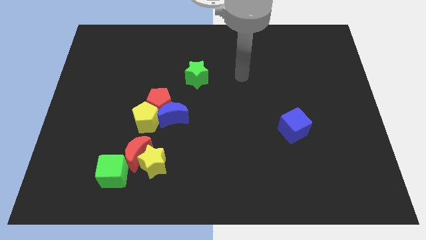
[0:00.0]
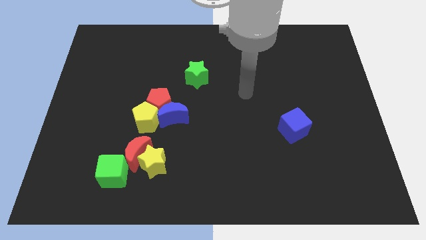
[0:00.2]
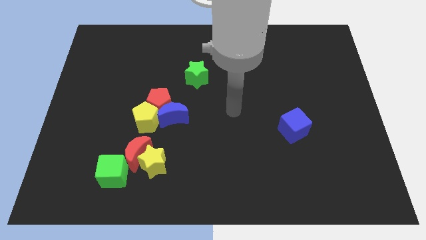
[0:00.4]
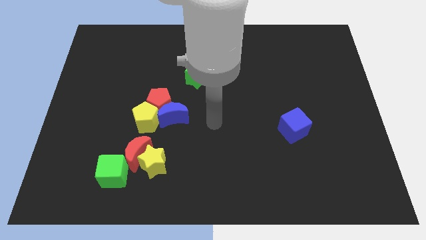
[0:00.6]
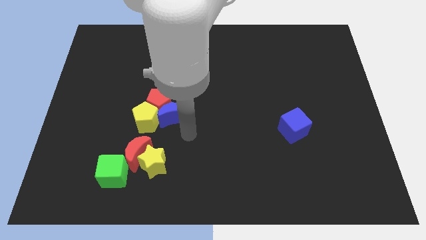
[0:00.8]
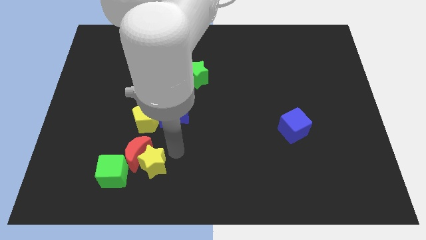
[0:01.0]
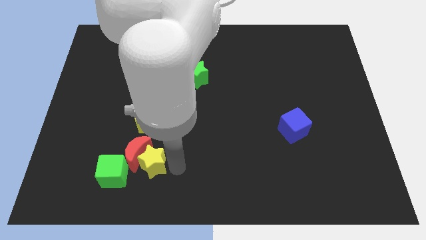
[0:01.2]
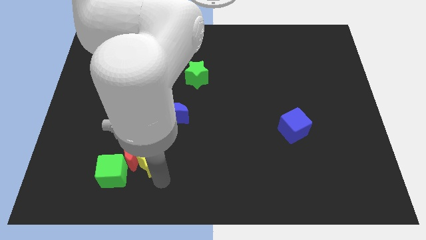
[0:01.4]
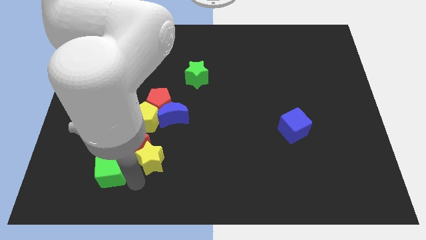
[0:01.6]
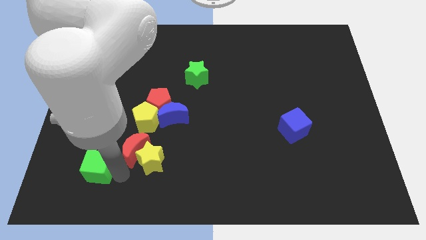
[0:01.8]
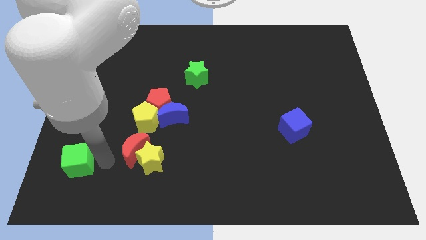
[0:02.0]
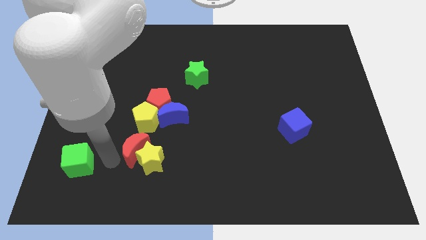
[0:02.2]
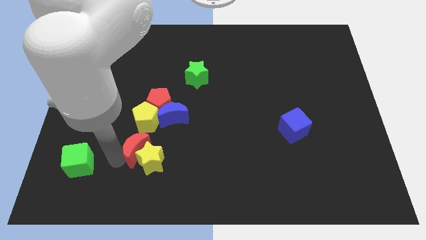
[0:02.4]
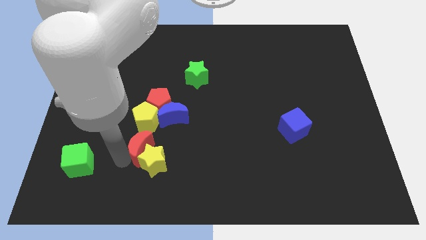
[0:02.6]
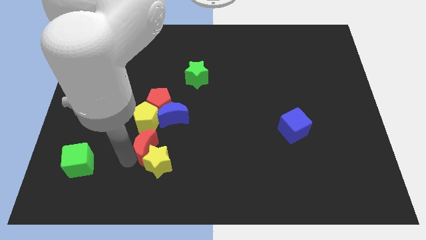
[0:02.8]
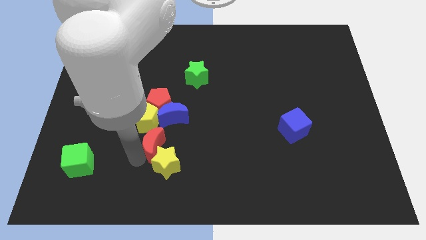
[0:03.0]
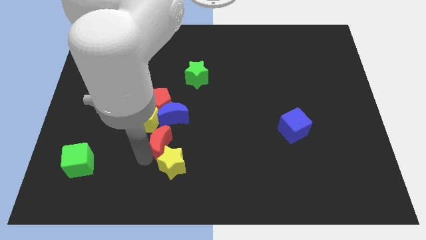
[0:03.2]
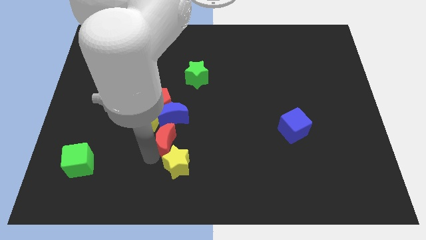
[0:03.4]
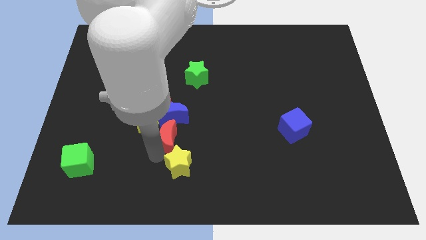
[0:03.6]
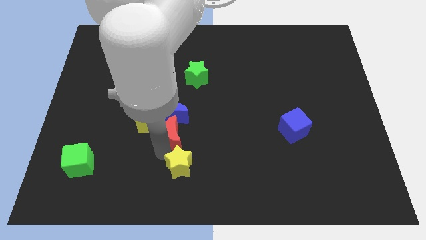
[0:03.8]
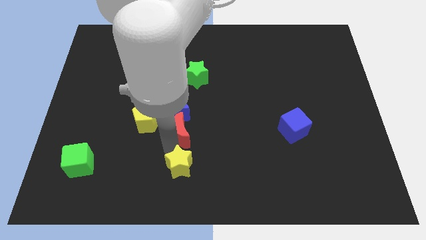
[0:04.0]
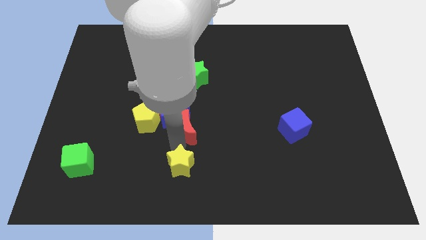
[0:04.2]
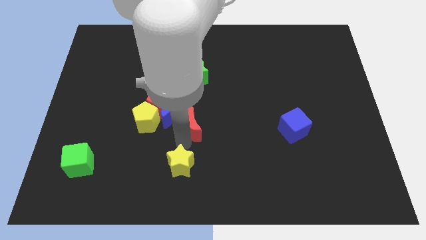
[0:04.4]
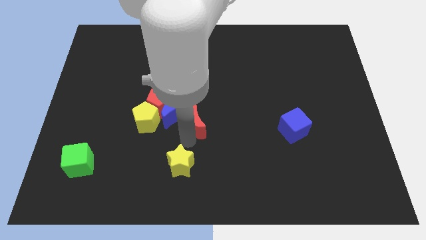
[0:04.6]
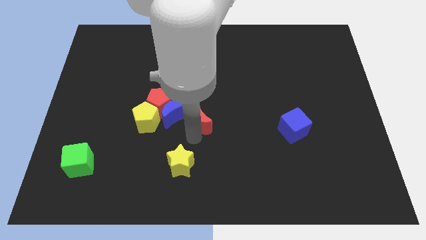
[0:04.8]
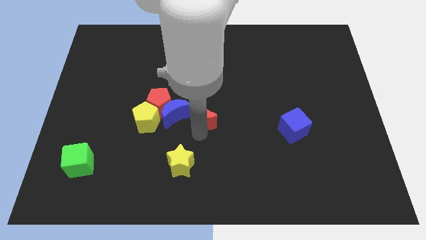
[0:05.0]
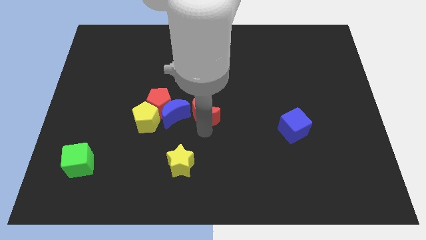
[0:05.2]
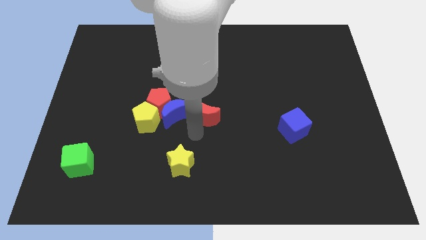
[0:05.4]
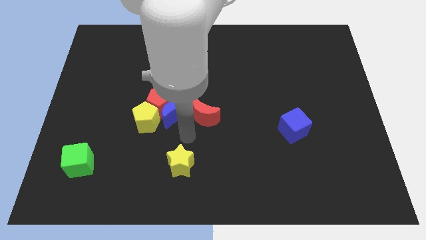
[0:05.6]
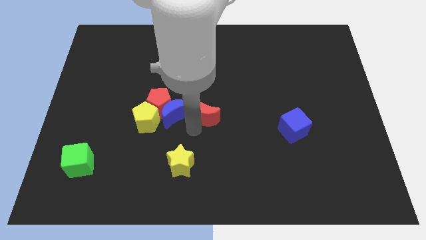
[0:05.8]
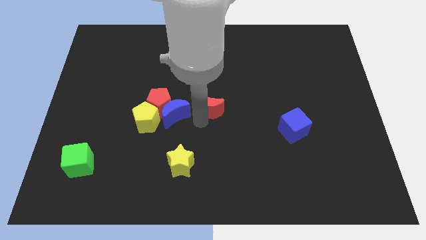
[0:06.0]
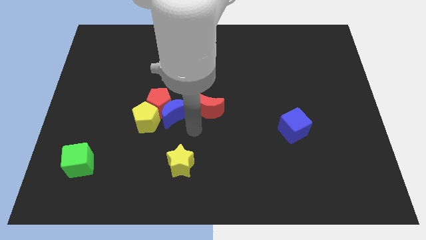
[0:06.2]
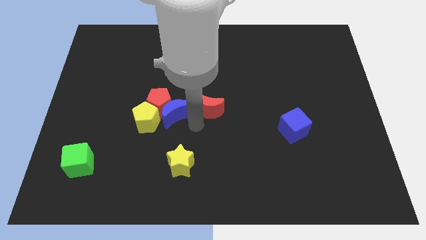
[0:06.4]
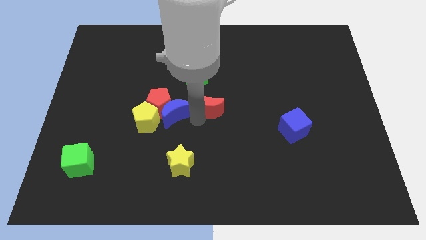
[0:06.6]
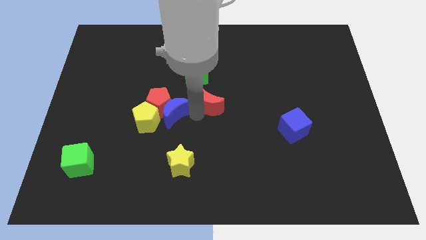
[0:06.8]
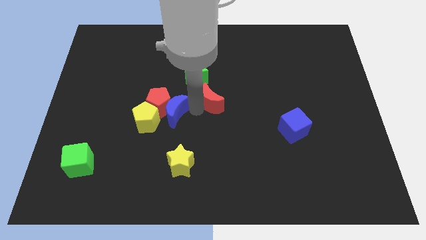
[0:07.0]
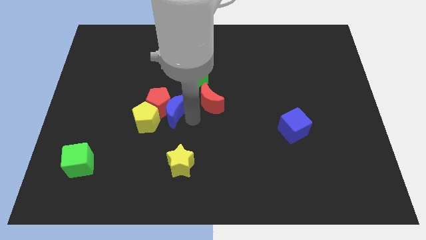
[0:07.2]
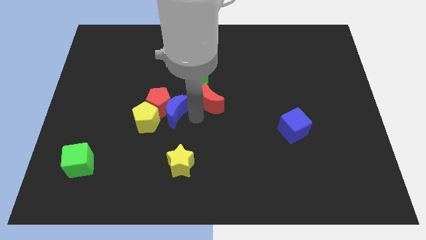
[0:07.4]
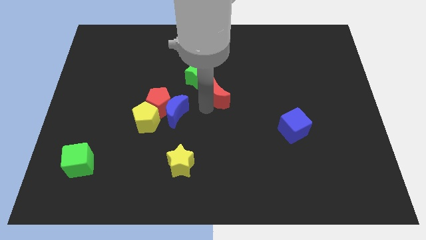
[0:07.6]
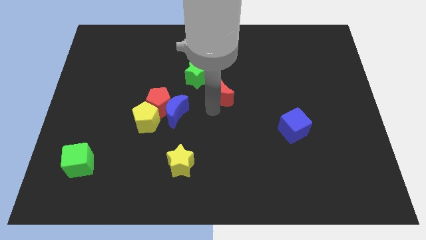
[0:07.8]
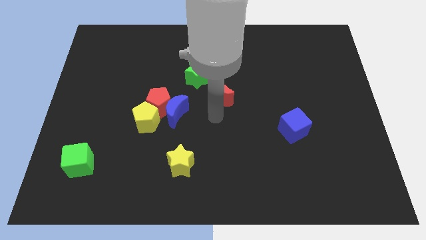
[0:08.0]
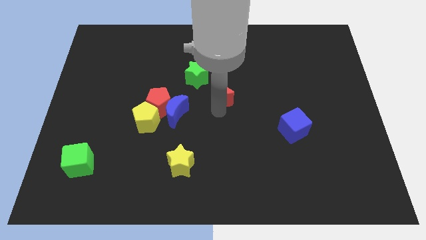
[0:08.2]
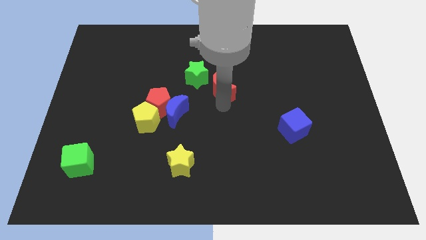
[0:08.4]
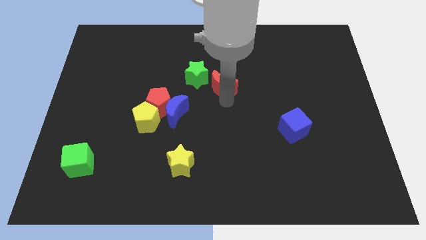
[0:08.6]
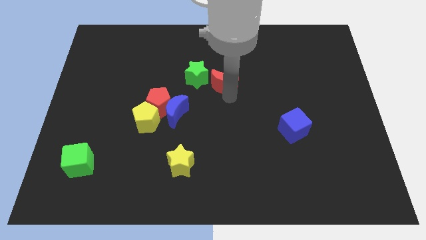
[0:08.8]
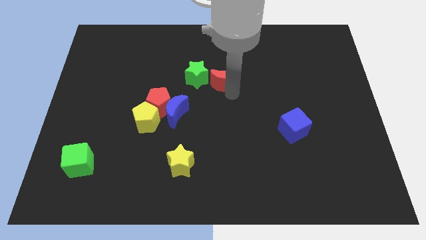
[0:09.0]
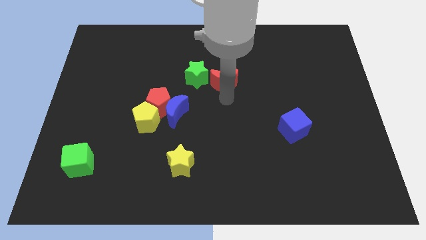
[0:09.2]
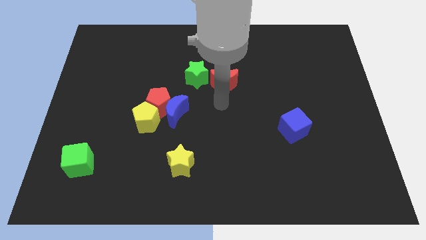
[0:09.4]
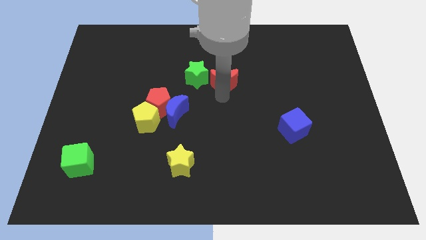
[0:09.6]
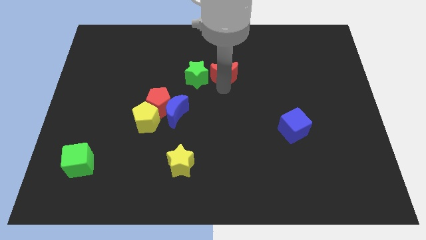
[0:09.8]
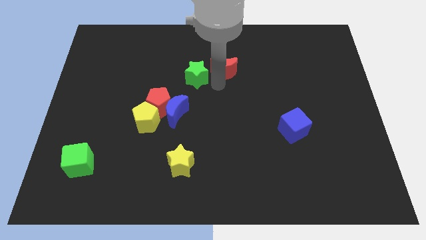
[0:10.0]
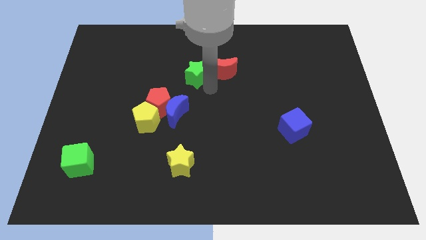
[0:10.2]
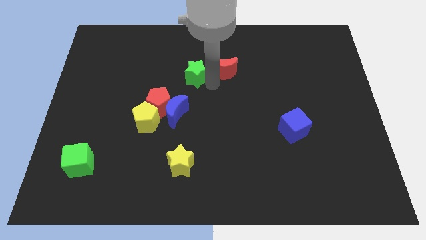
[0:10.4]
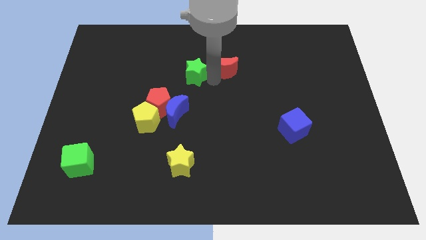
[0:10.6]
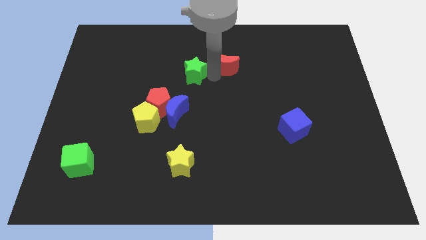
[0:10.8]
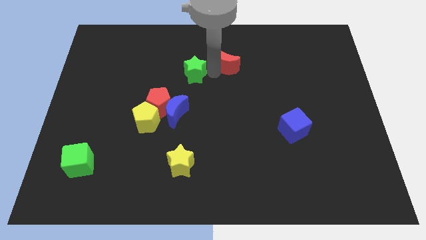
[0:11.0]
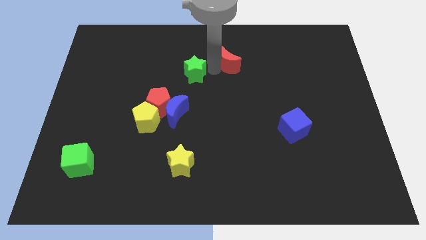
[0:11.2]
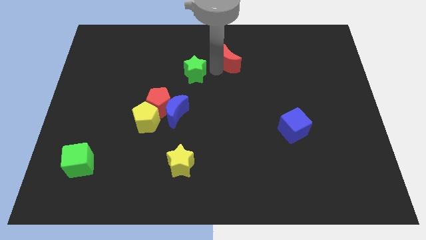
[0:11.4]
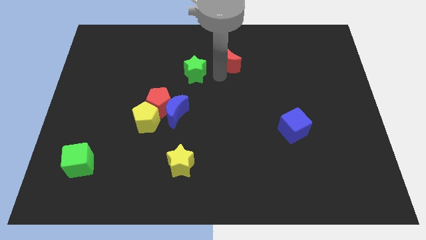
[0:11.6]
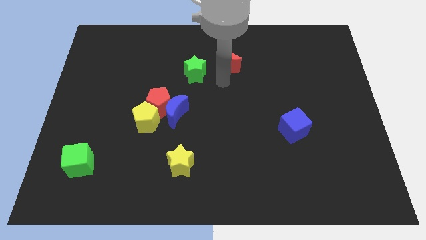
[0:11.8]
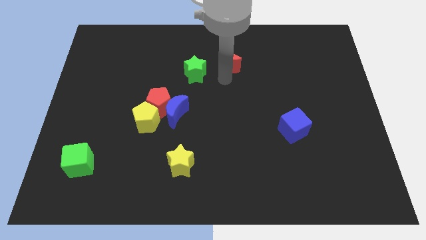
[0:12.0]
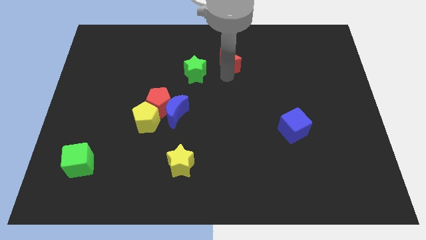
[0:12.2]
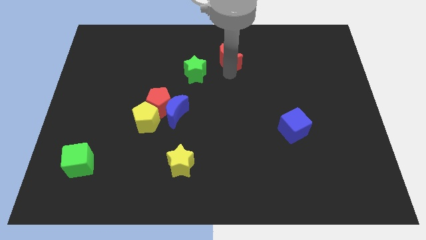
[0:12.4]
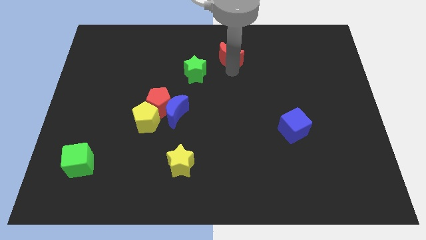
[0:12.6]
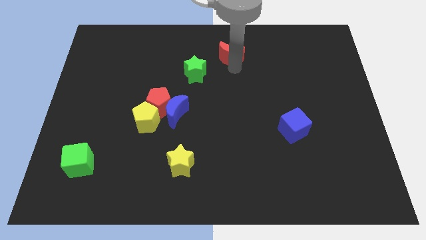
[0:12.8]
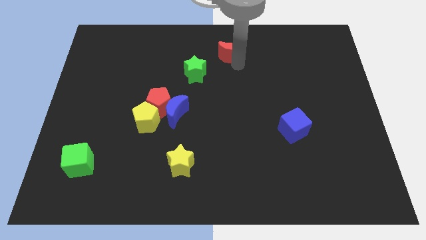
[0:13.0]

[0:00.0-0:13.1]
slide the red moon to the top

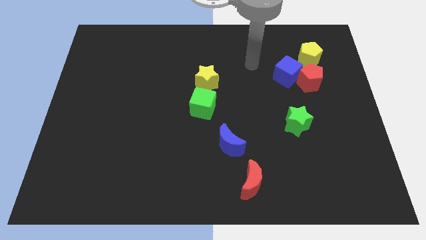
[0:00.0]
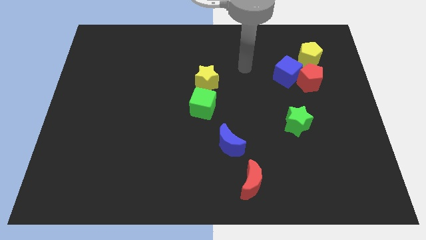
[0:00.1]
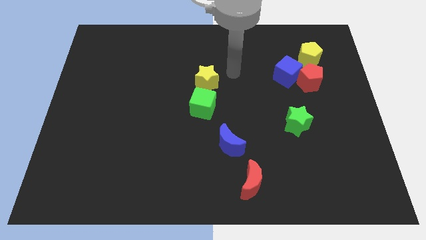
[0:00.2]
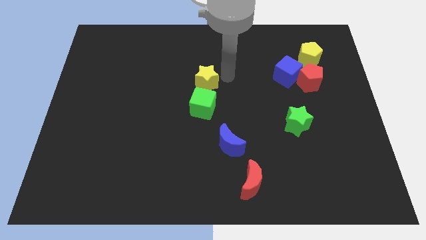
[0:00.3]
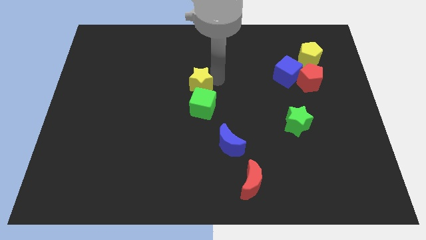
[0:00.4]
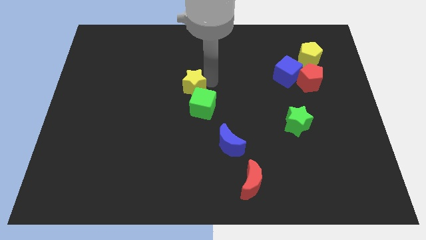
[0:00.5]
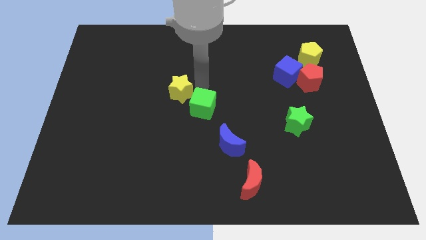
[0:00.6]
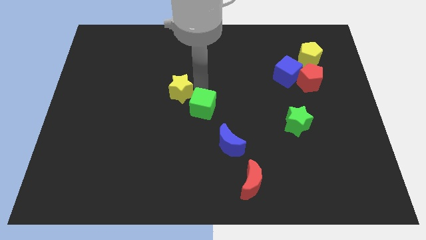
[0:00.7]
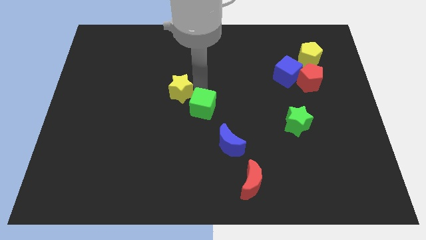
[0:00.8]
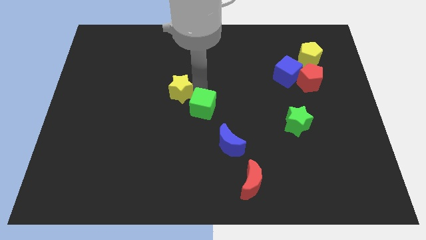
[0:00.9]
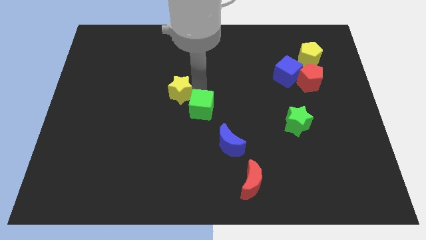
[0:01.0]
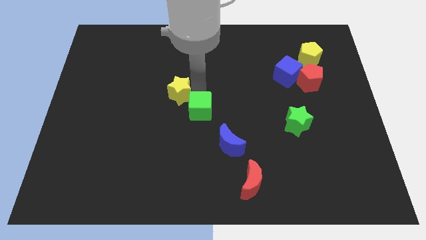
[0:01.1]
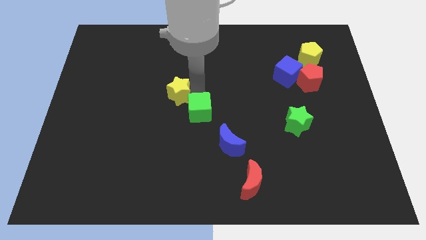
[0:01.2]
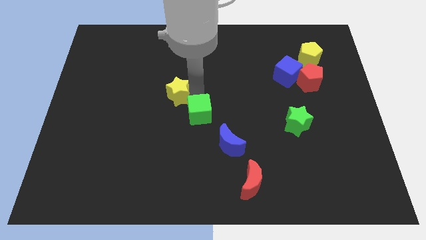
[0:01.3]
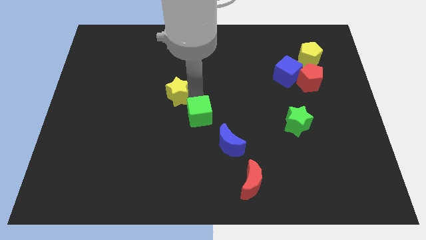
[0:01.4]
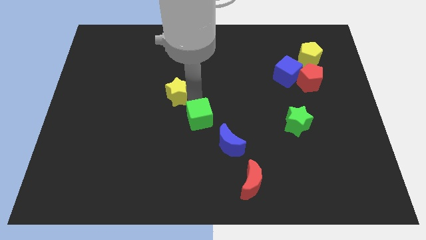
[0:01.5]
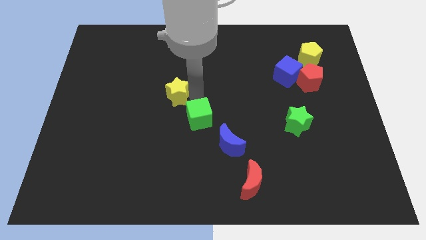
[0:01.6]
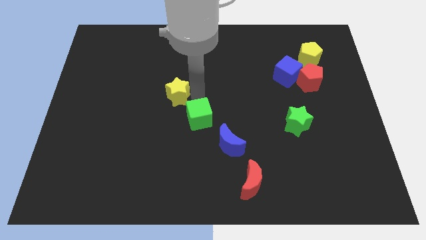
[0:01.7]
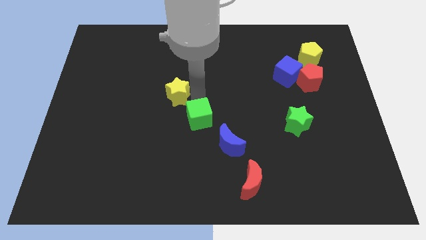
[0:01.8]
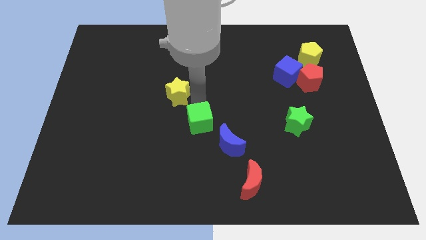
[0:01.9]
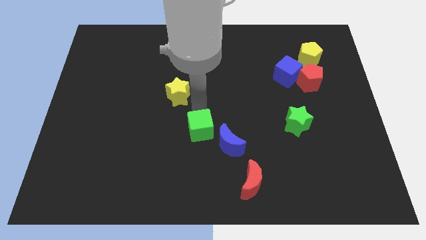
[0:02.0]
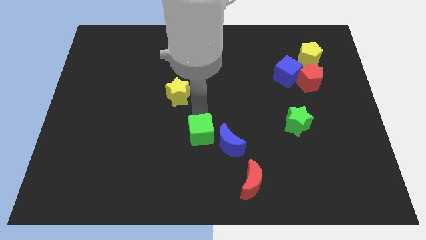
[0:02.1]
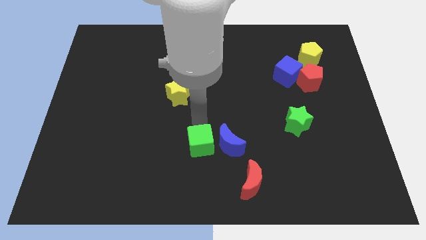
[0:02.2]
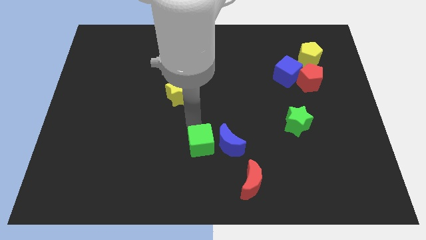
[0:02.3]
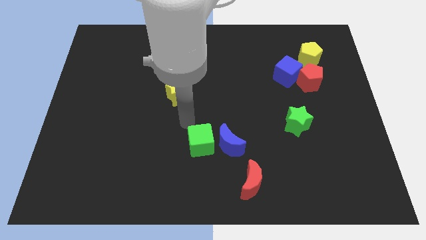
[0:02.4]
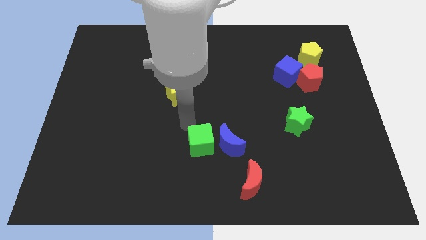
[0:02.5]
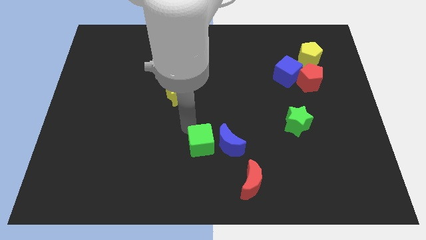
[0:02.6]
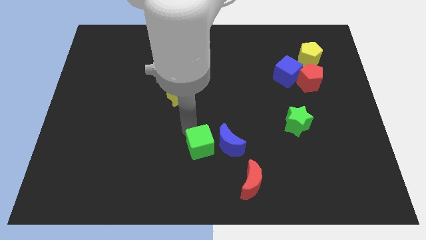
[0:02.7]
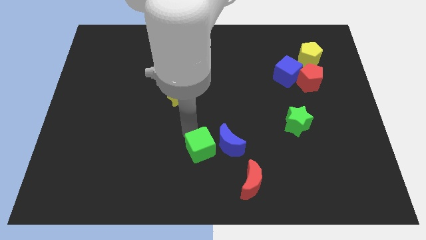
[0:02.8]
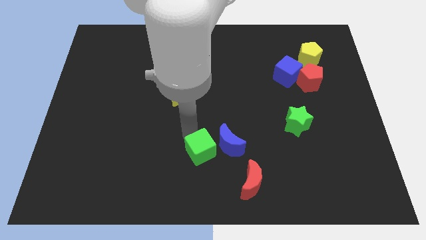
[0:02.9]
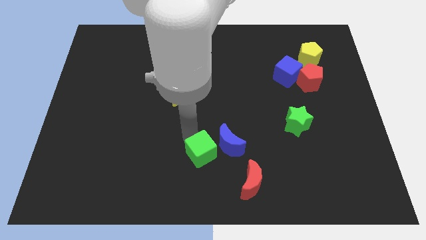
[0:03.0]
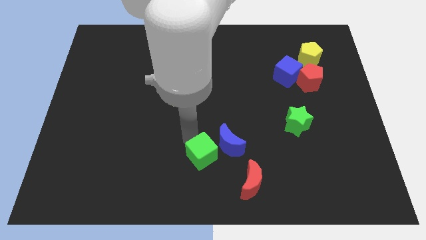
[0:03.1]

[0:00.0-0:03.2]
put the green cube to the bottom side
